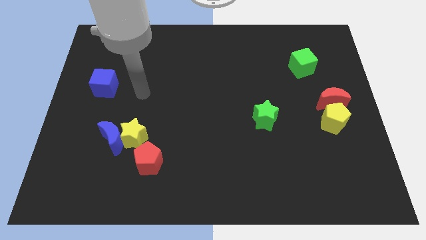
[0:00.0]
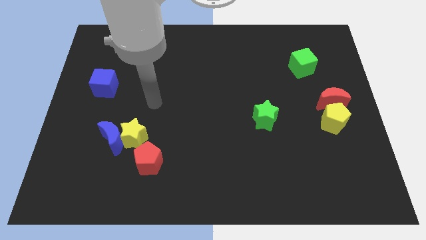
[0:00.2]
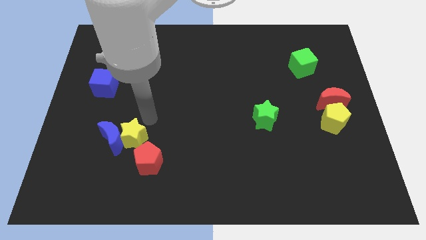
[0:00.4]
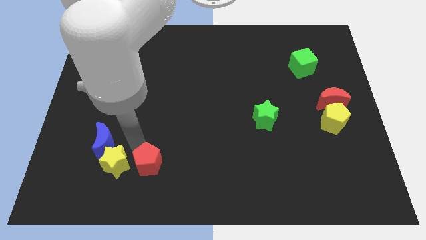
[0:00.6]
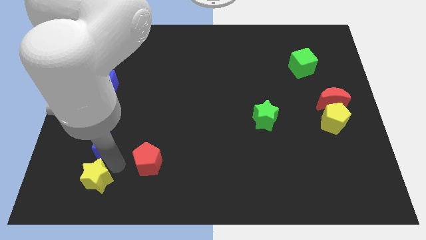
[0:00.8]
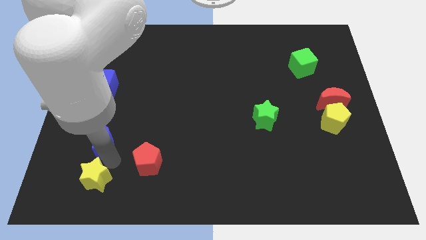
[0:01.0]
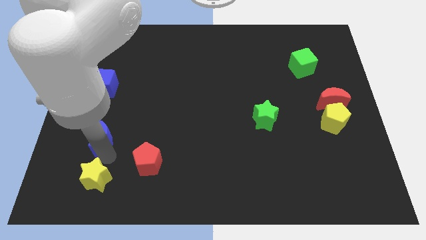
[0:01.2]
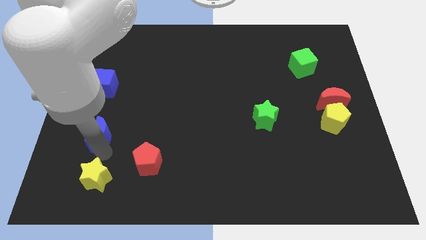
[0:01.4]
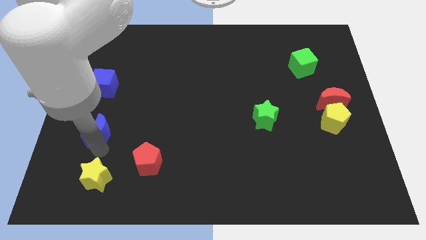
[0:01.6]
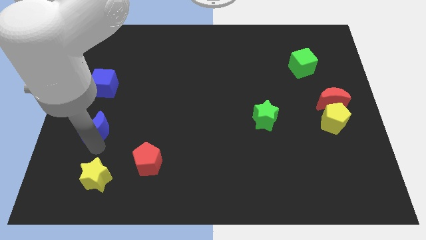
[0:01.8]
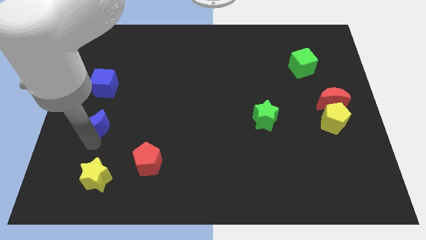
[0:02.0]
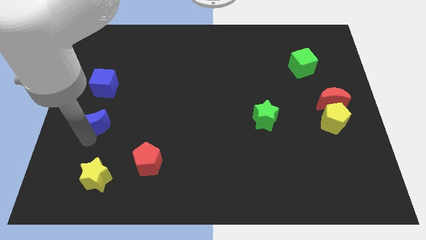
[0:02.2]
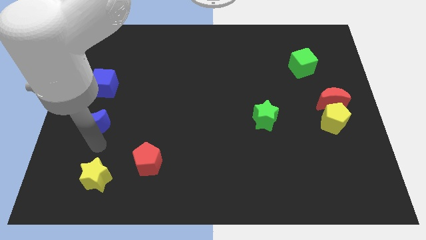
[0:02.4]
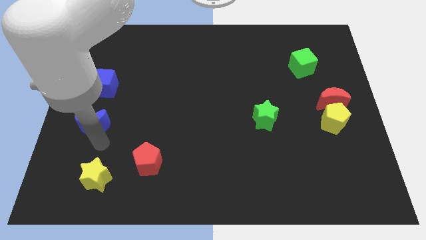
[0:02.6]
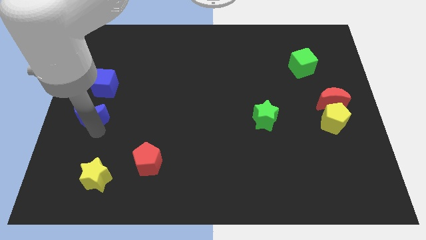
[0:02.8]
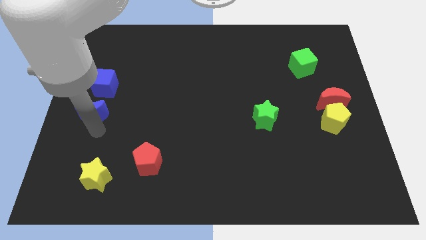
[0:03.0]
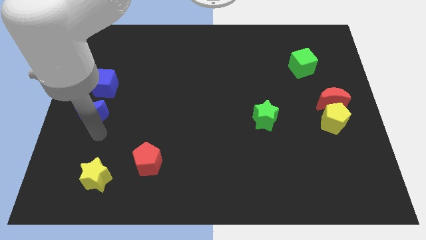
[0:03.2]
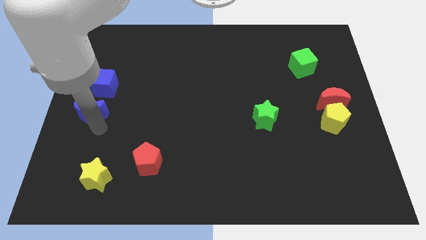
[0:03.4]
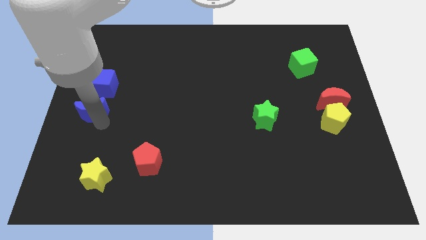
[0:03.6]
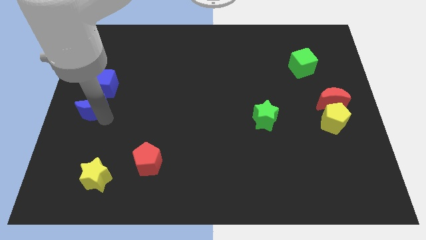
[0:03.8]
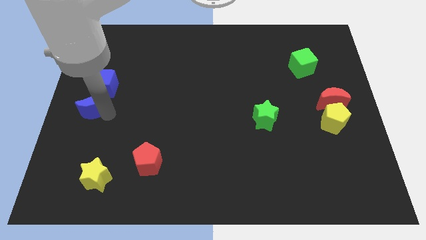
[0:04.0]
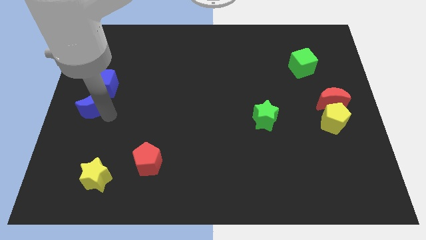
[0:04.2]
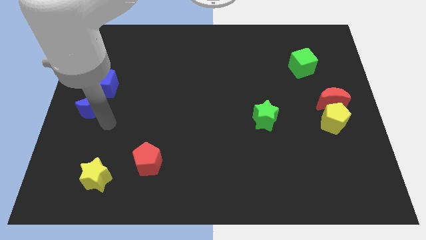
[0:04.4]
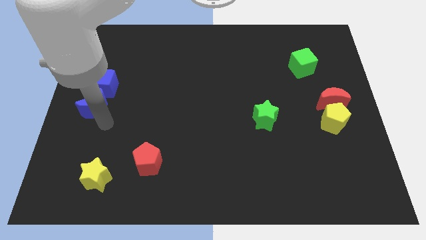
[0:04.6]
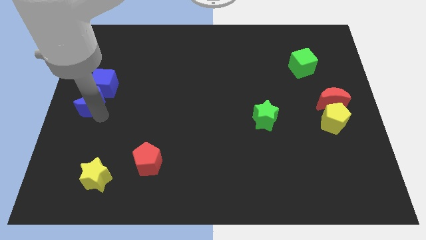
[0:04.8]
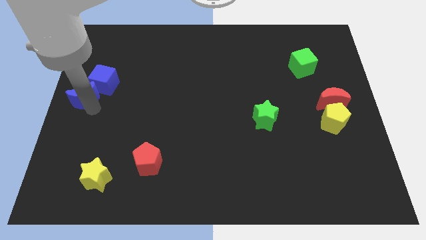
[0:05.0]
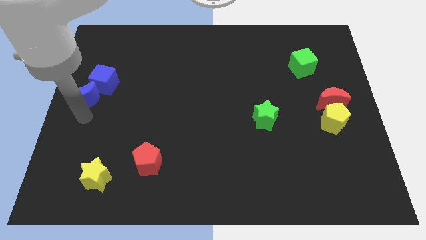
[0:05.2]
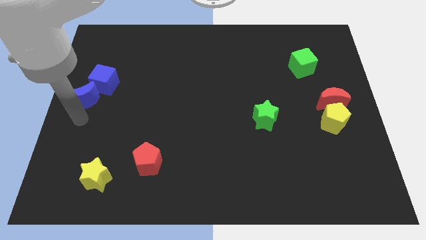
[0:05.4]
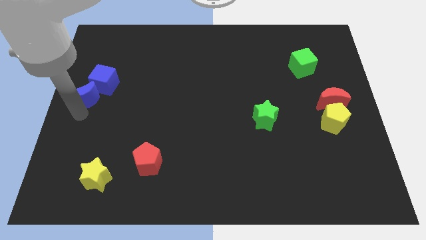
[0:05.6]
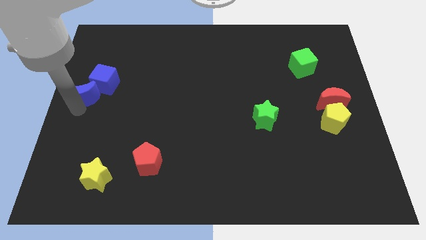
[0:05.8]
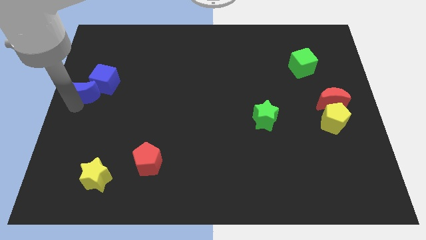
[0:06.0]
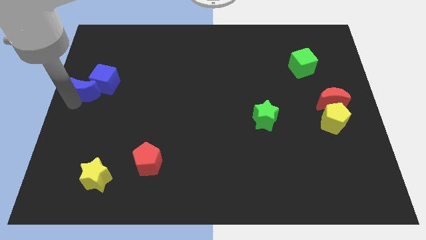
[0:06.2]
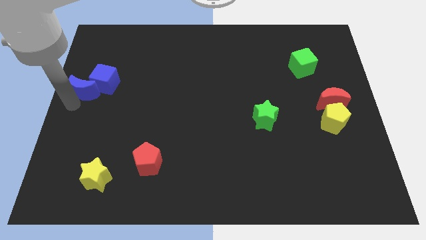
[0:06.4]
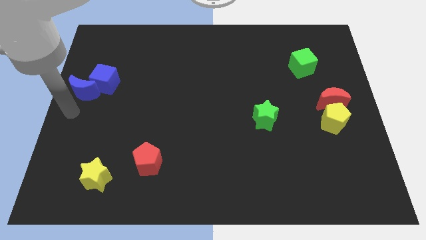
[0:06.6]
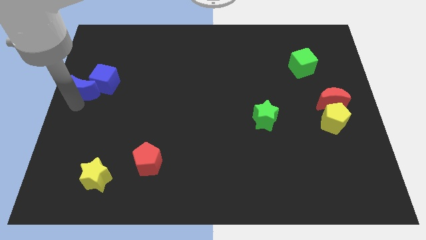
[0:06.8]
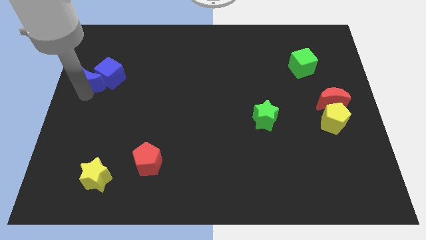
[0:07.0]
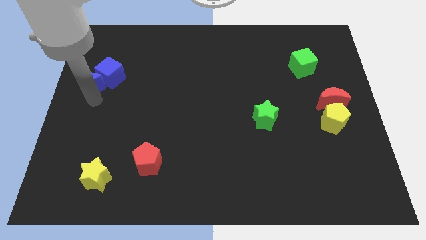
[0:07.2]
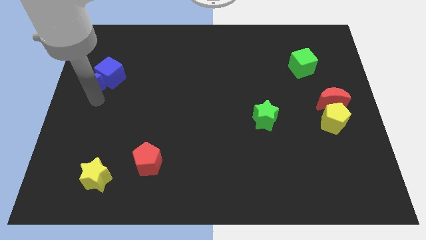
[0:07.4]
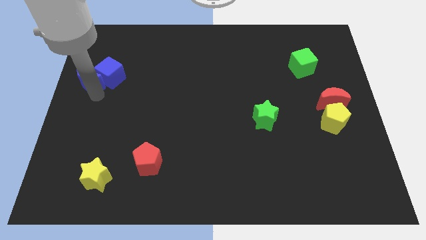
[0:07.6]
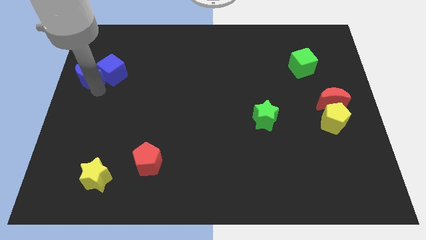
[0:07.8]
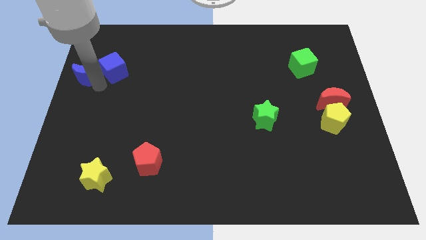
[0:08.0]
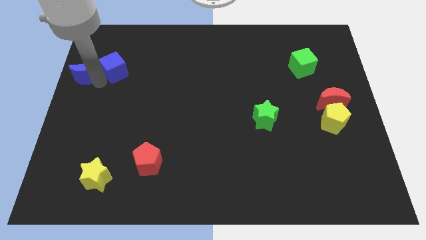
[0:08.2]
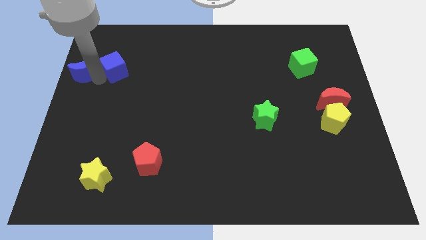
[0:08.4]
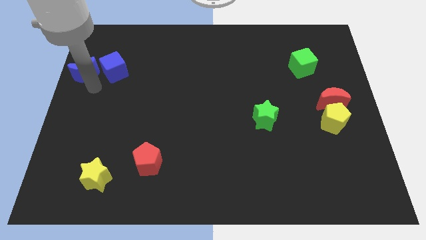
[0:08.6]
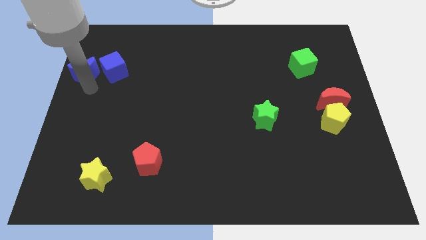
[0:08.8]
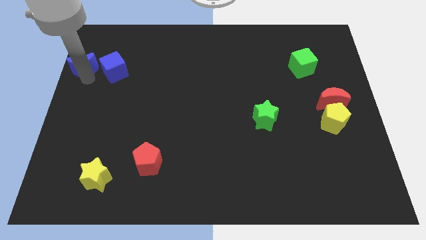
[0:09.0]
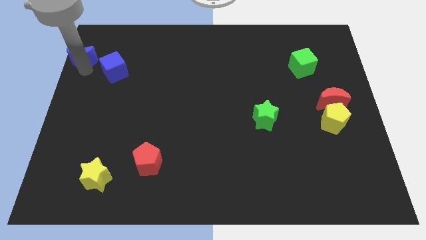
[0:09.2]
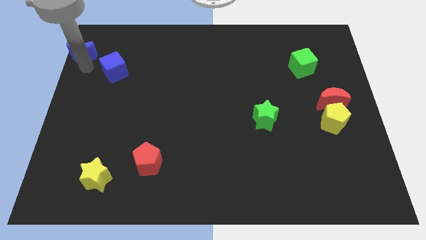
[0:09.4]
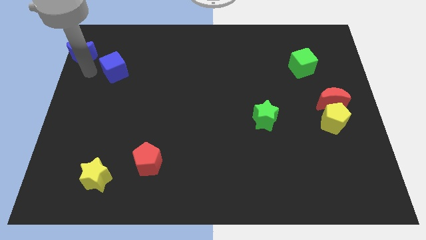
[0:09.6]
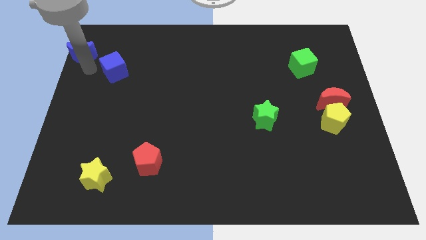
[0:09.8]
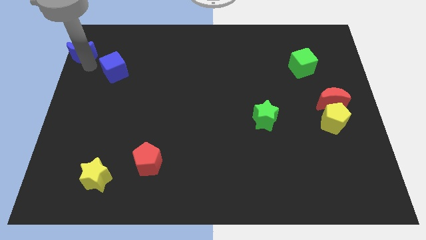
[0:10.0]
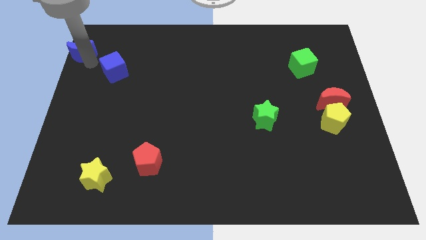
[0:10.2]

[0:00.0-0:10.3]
slide the blue moon to the top left

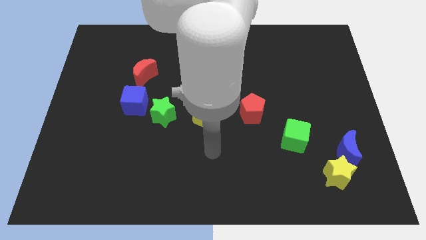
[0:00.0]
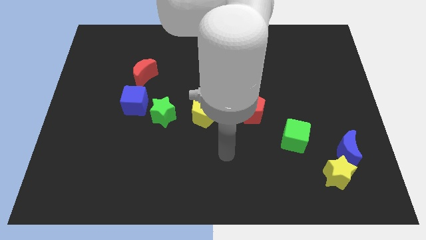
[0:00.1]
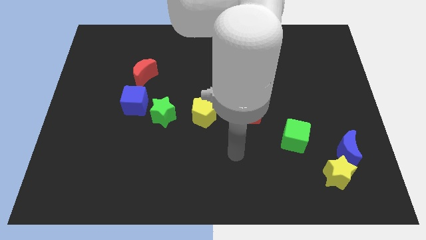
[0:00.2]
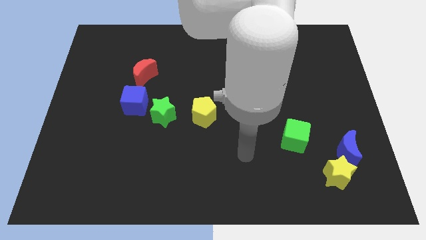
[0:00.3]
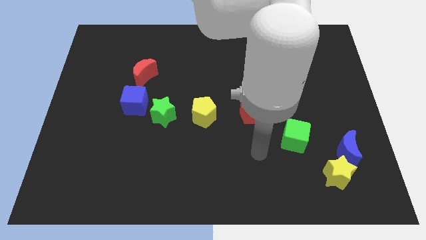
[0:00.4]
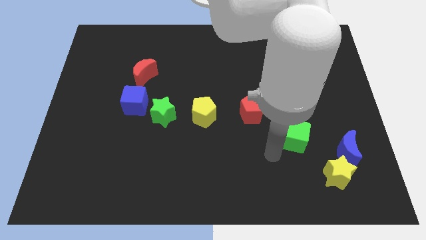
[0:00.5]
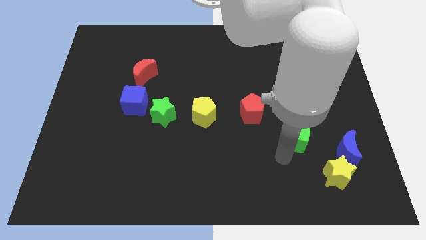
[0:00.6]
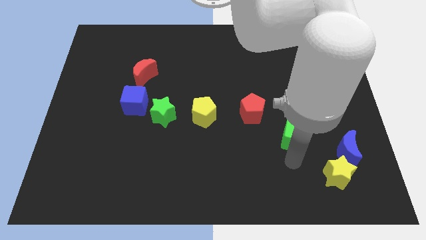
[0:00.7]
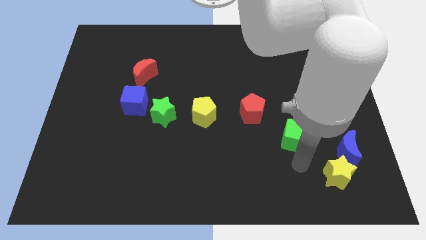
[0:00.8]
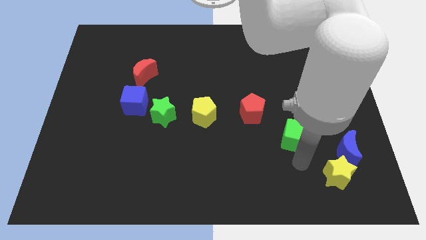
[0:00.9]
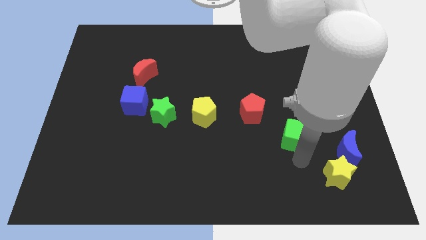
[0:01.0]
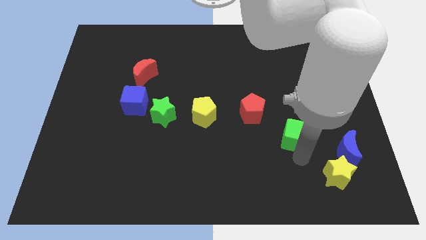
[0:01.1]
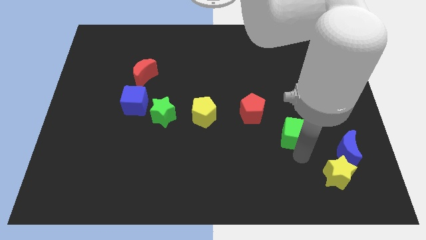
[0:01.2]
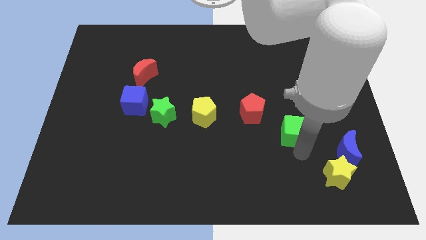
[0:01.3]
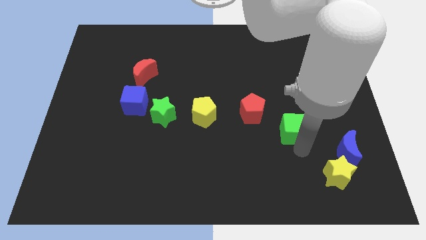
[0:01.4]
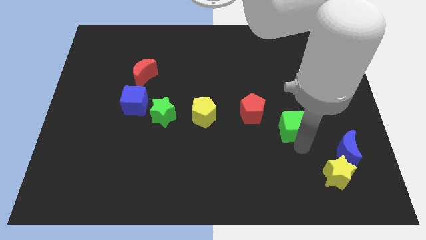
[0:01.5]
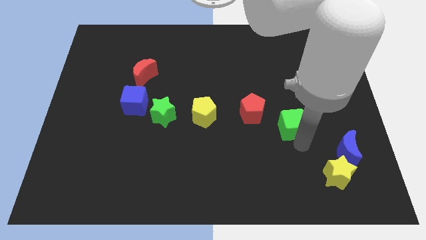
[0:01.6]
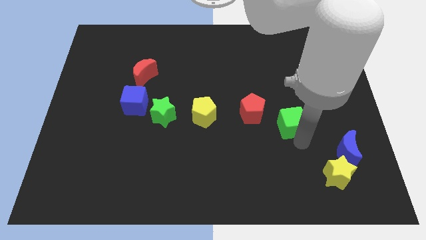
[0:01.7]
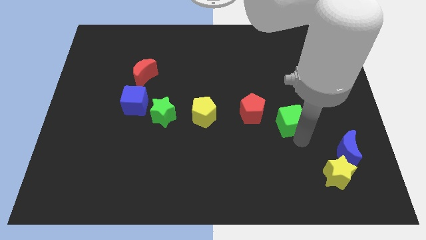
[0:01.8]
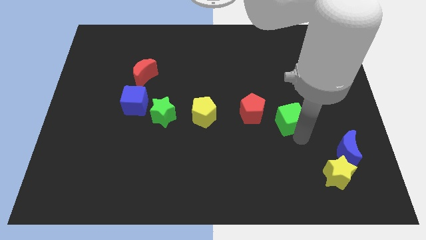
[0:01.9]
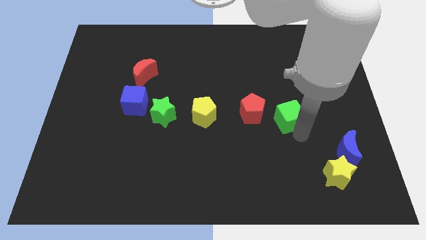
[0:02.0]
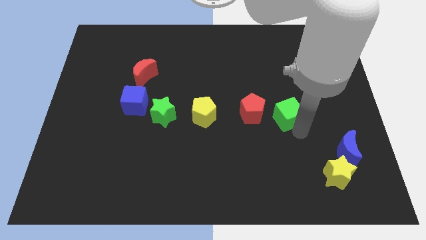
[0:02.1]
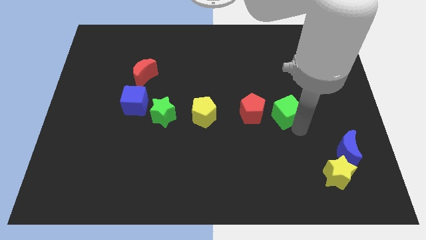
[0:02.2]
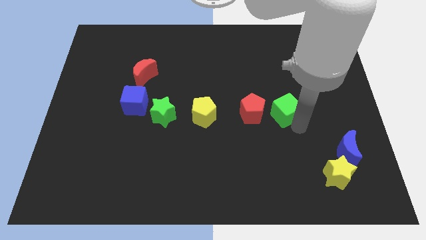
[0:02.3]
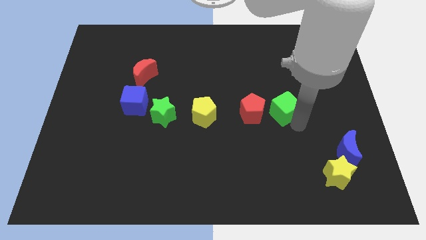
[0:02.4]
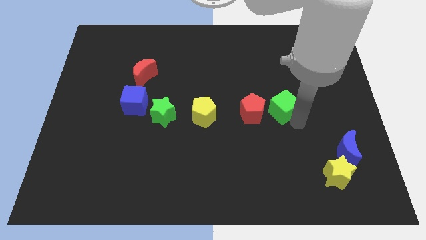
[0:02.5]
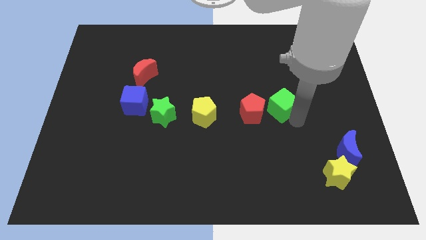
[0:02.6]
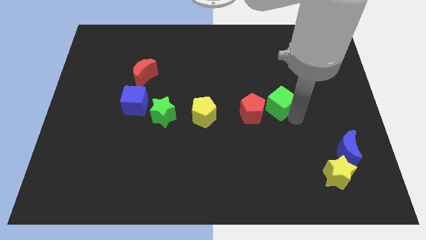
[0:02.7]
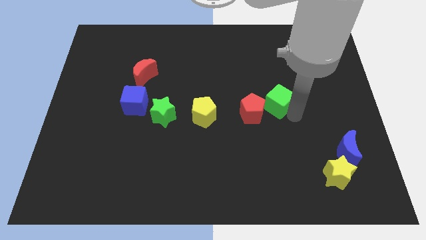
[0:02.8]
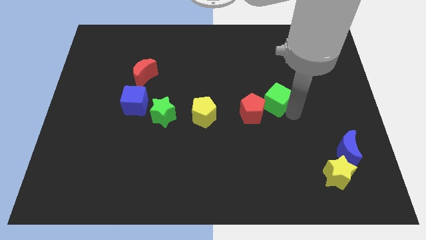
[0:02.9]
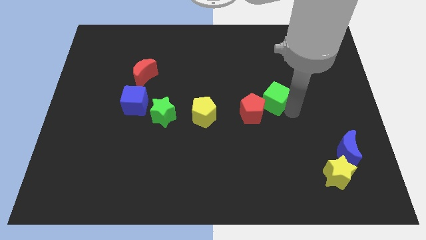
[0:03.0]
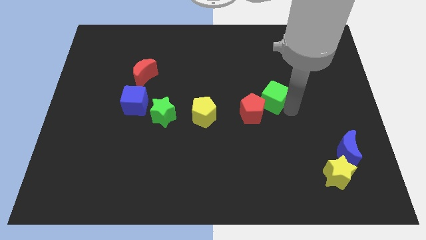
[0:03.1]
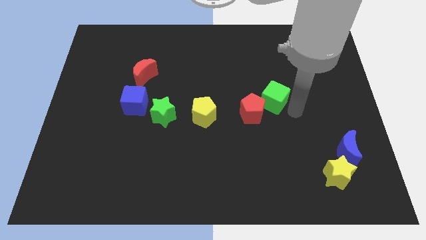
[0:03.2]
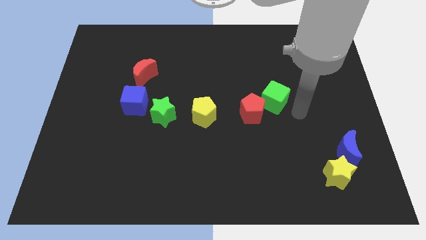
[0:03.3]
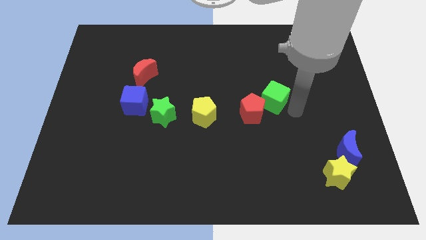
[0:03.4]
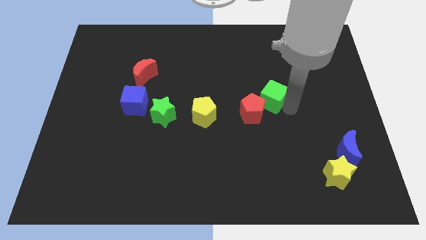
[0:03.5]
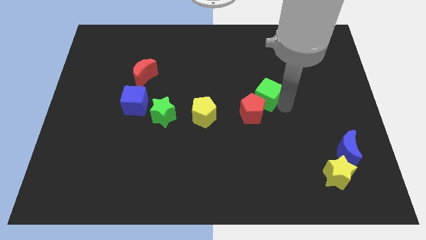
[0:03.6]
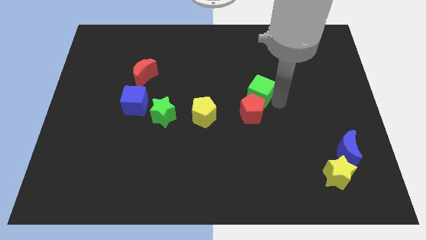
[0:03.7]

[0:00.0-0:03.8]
put the green cube to the center of the board
